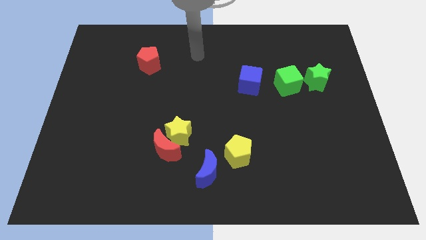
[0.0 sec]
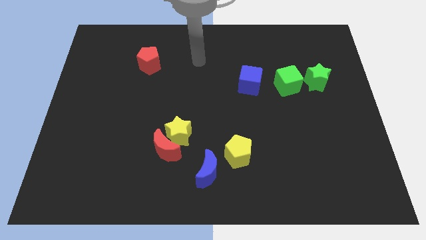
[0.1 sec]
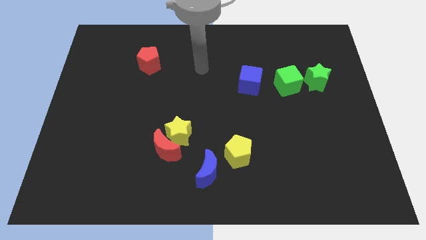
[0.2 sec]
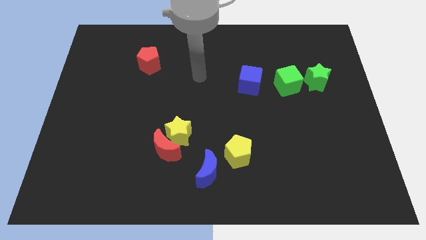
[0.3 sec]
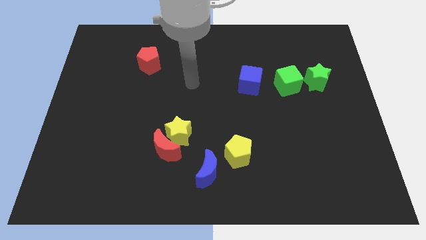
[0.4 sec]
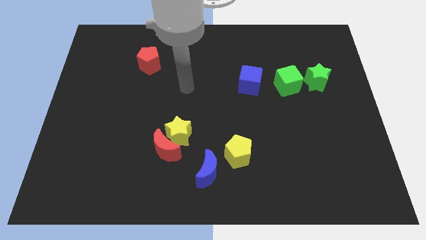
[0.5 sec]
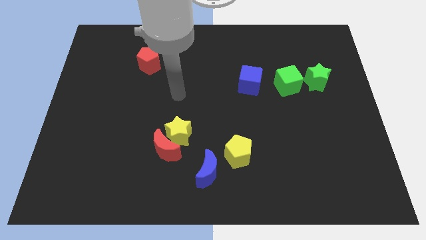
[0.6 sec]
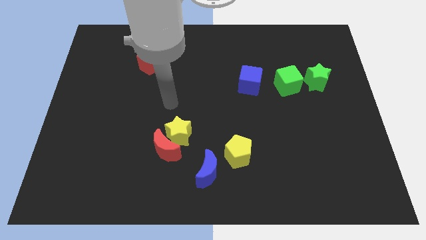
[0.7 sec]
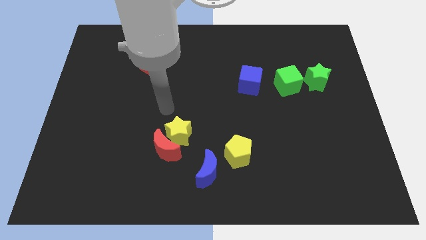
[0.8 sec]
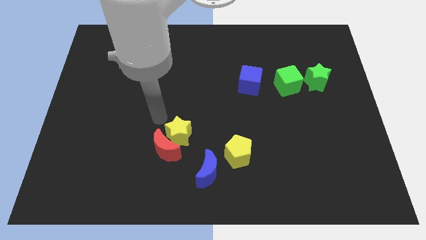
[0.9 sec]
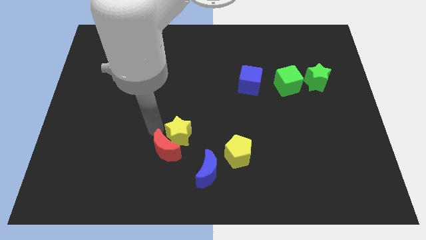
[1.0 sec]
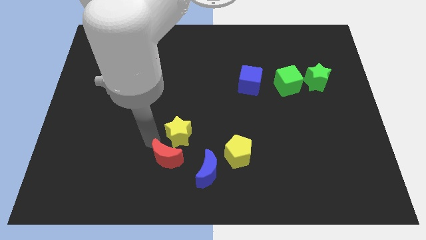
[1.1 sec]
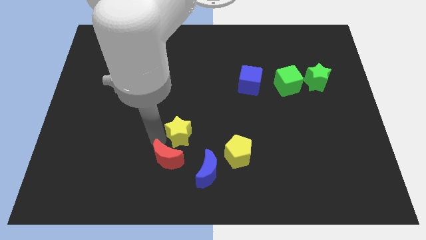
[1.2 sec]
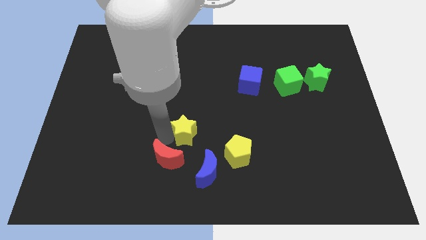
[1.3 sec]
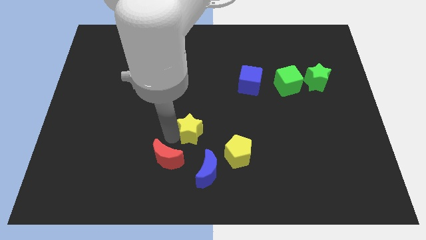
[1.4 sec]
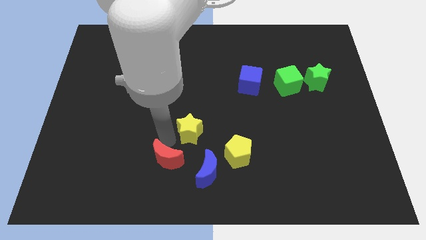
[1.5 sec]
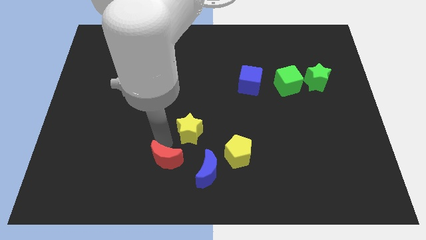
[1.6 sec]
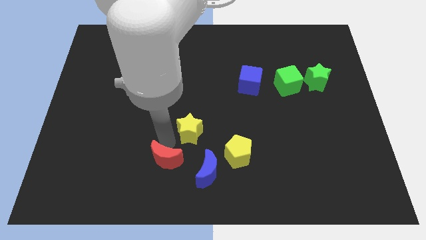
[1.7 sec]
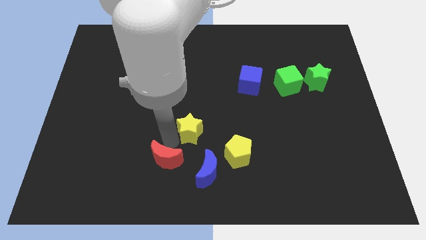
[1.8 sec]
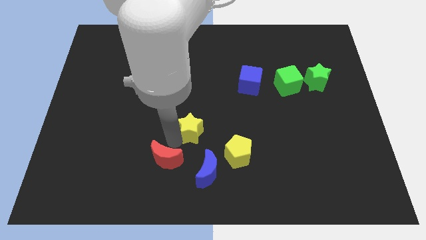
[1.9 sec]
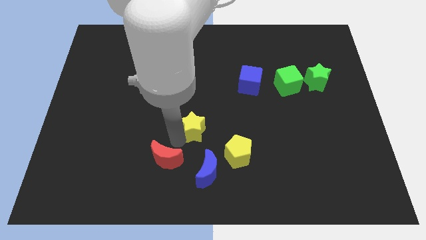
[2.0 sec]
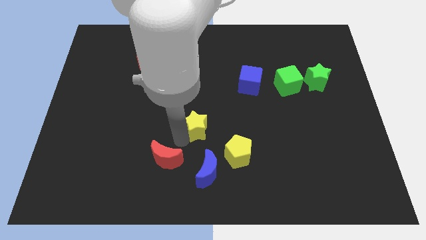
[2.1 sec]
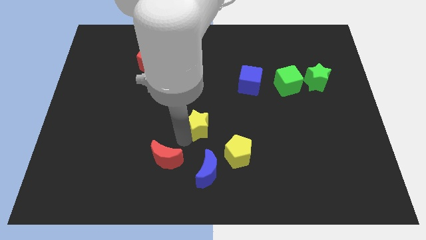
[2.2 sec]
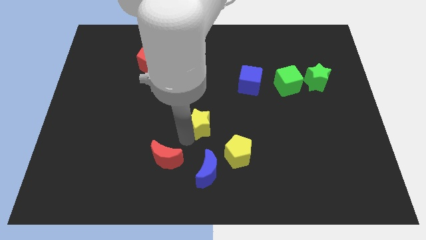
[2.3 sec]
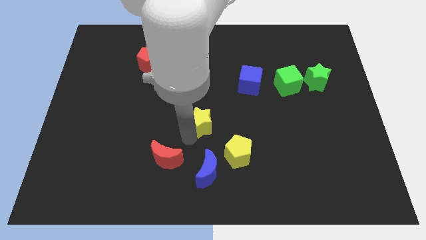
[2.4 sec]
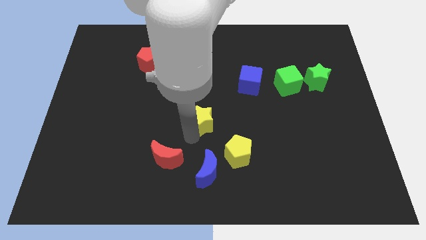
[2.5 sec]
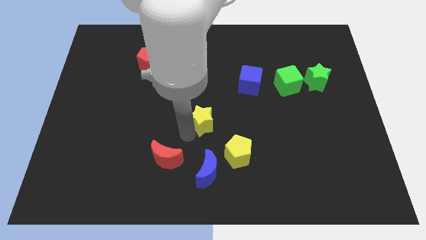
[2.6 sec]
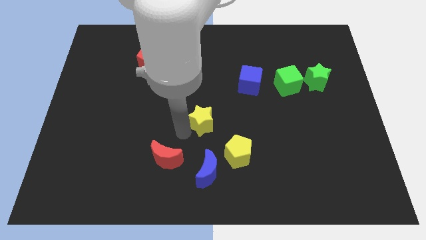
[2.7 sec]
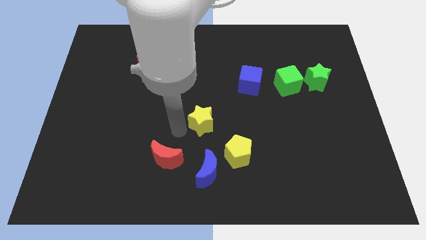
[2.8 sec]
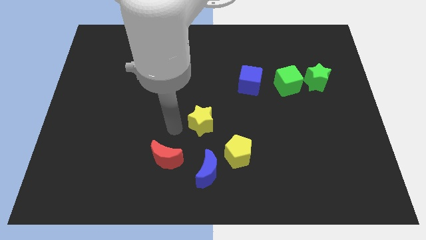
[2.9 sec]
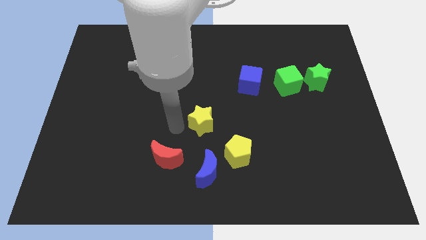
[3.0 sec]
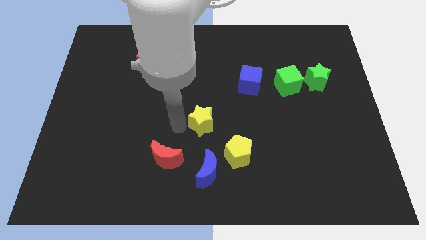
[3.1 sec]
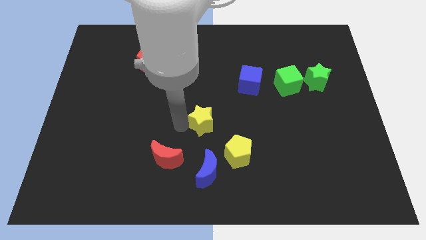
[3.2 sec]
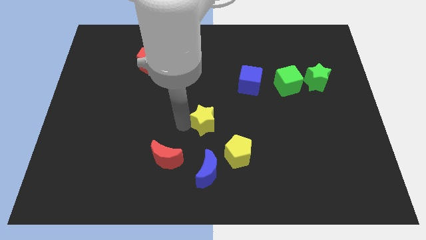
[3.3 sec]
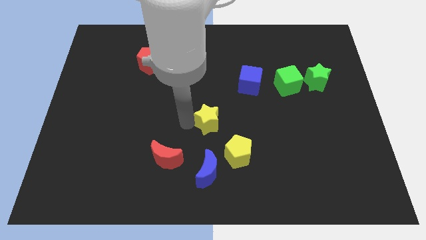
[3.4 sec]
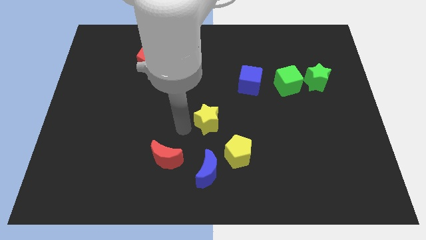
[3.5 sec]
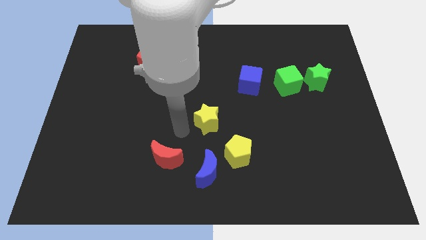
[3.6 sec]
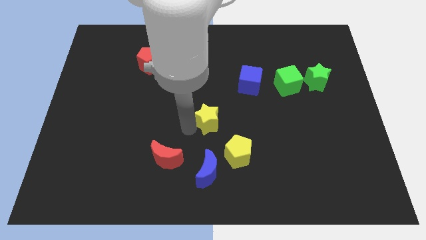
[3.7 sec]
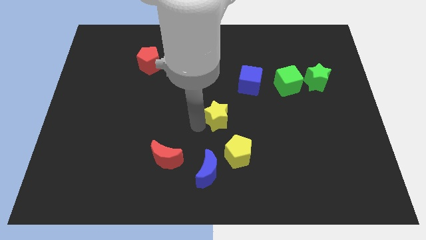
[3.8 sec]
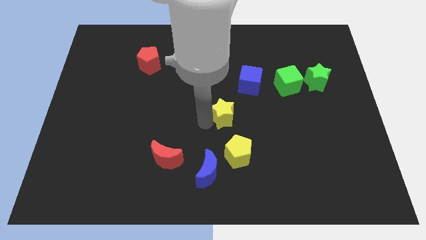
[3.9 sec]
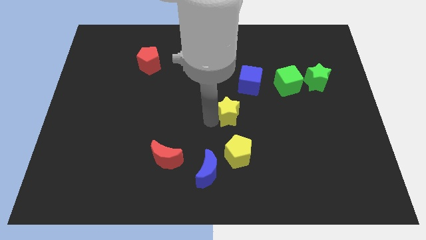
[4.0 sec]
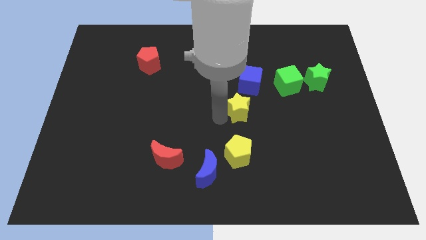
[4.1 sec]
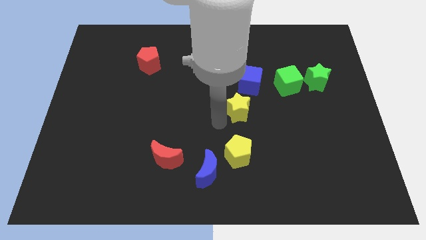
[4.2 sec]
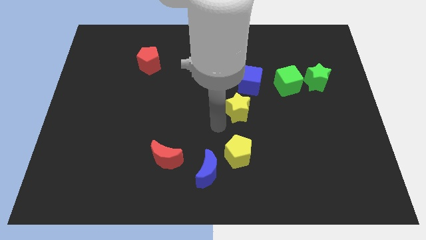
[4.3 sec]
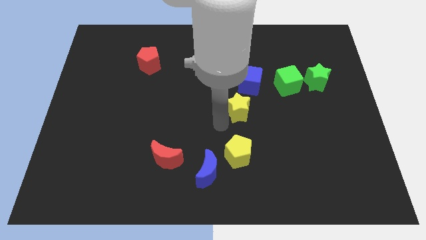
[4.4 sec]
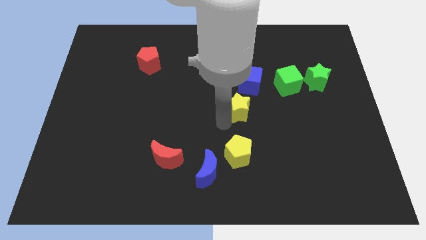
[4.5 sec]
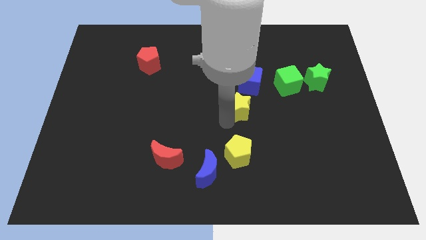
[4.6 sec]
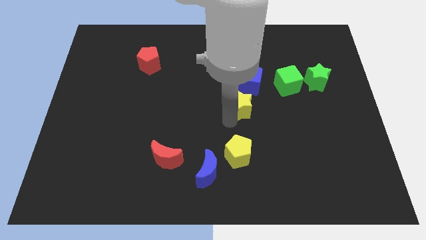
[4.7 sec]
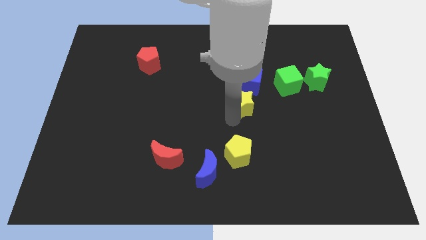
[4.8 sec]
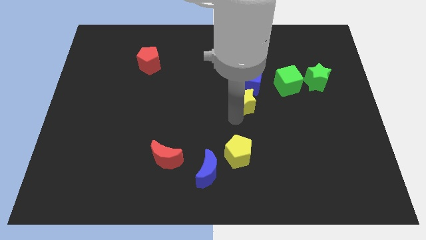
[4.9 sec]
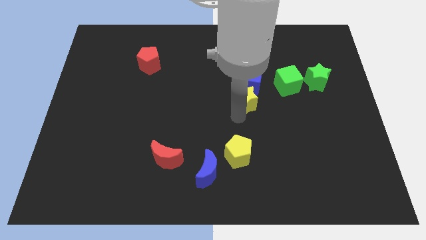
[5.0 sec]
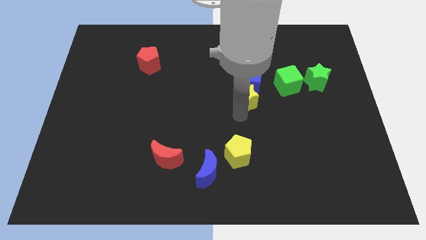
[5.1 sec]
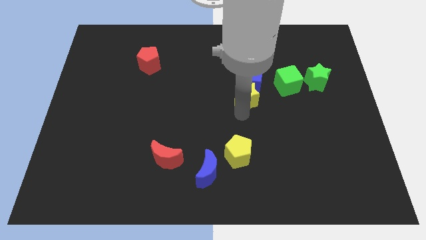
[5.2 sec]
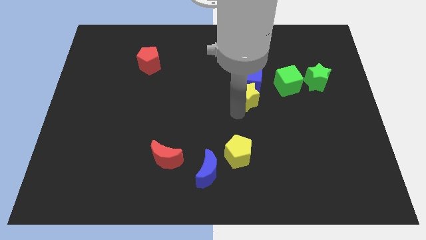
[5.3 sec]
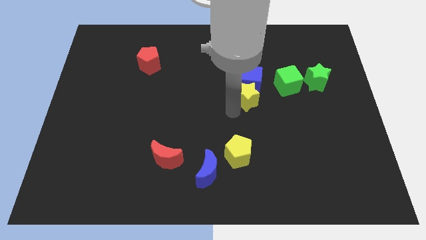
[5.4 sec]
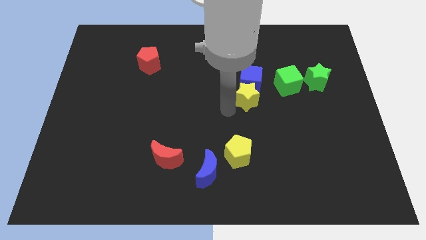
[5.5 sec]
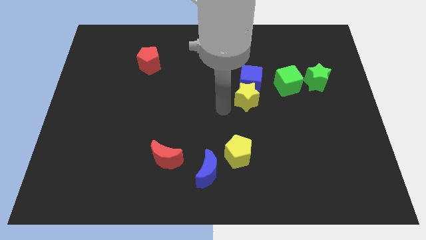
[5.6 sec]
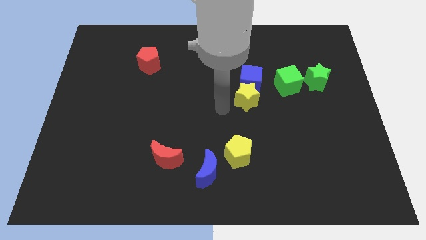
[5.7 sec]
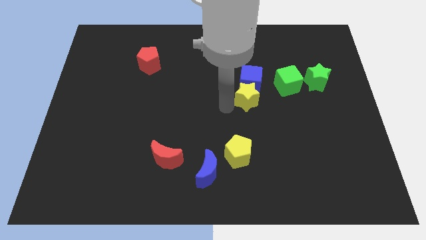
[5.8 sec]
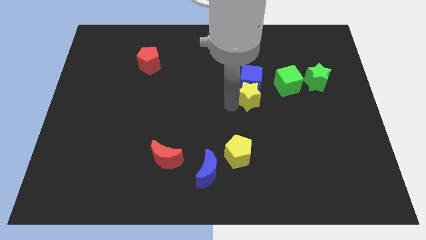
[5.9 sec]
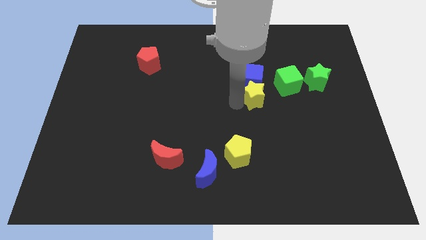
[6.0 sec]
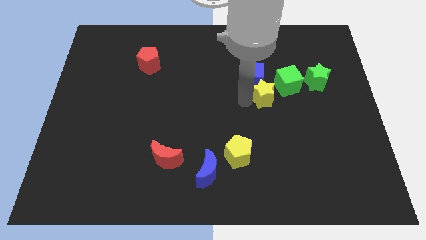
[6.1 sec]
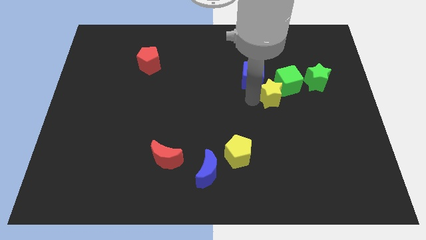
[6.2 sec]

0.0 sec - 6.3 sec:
put the yellow star close to the green cube
